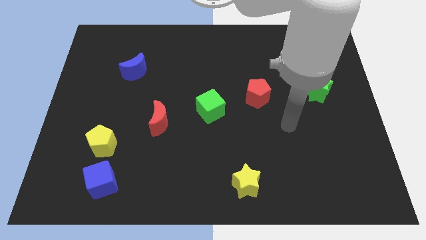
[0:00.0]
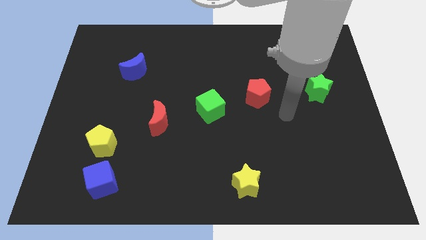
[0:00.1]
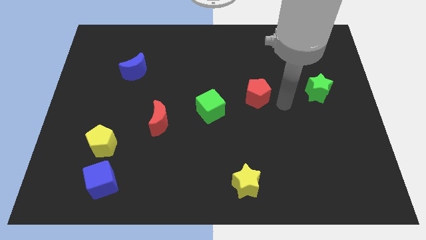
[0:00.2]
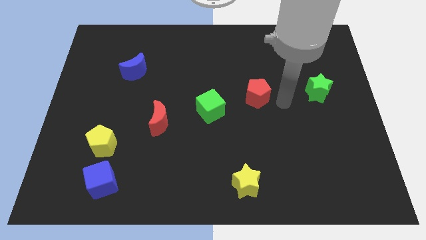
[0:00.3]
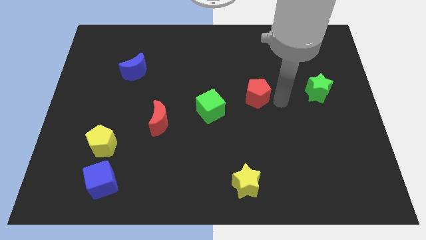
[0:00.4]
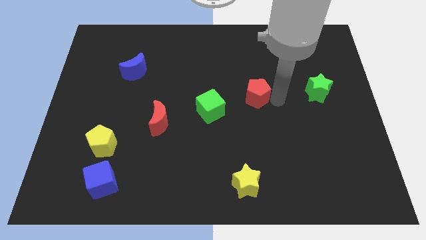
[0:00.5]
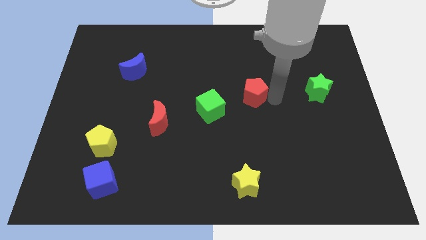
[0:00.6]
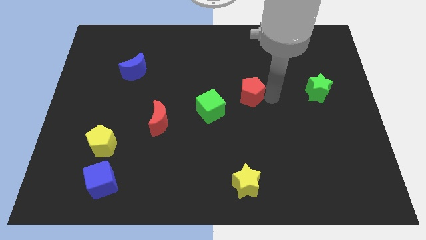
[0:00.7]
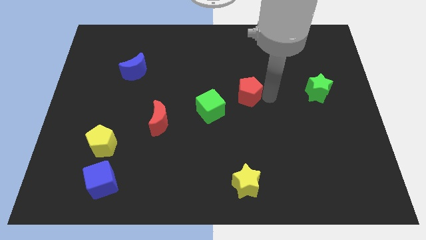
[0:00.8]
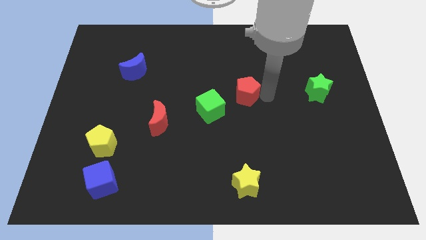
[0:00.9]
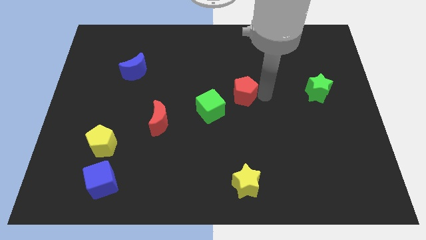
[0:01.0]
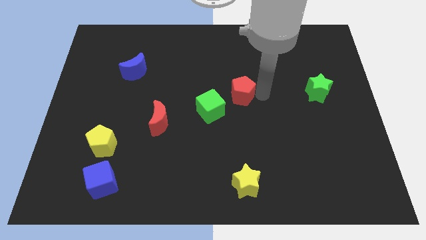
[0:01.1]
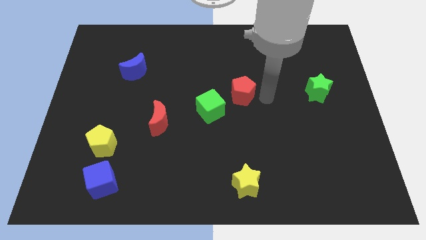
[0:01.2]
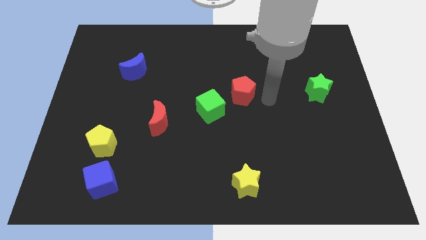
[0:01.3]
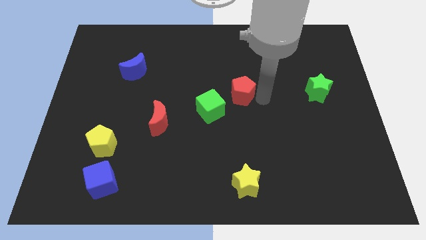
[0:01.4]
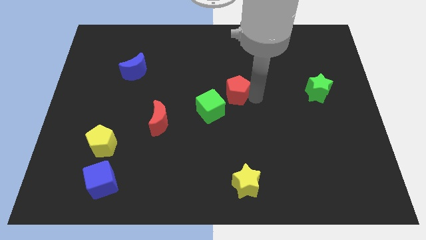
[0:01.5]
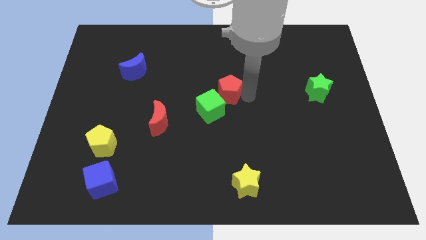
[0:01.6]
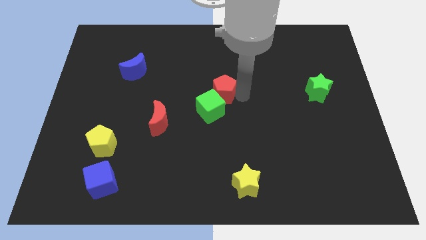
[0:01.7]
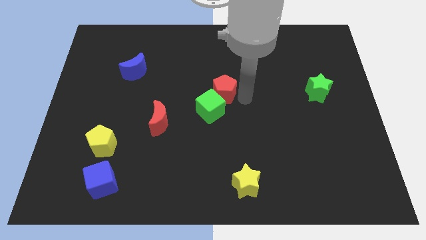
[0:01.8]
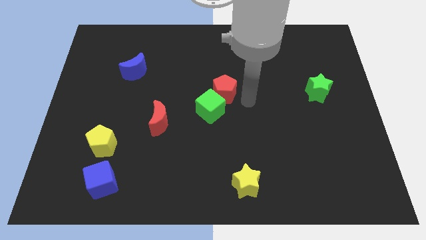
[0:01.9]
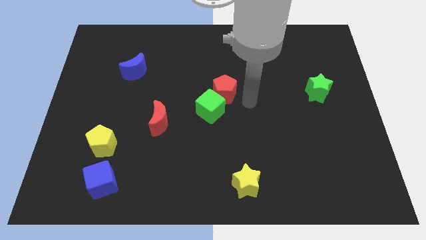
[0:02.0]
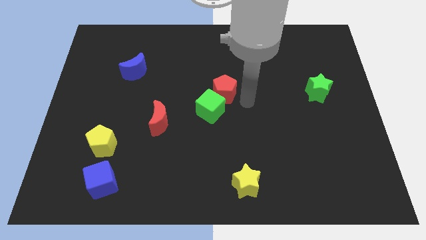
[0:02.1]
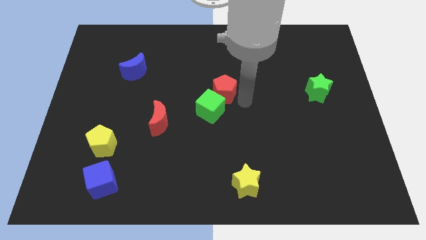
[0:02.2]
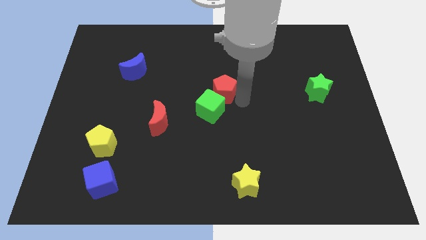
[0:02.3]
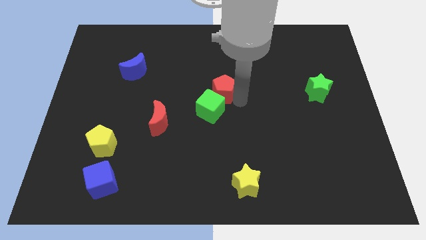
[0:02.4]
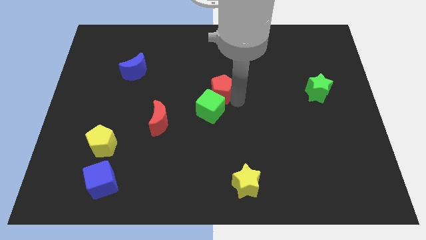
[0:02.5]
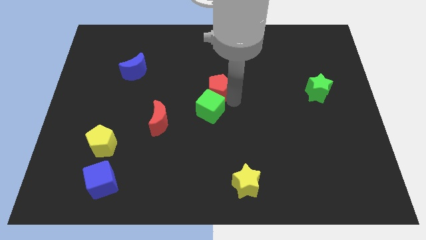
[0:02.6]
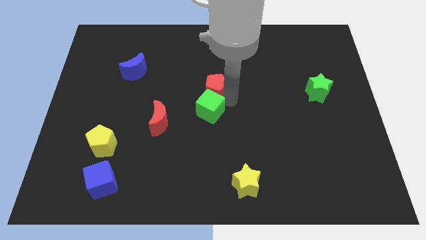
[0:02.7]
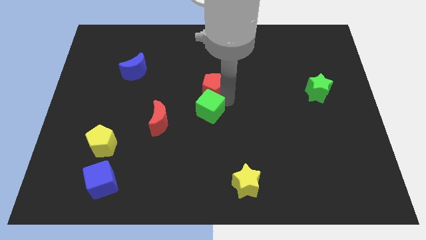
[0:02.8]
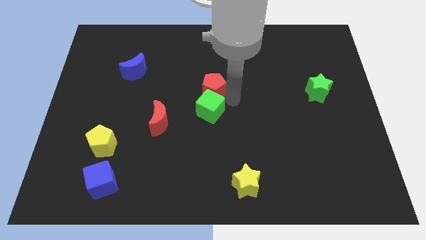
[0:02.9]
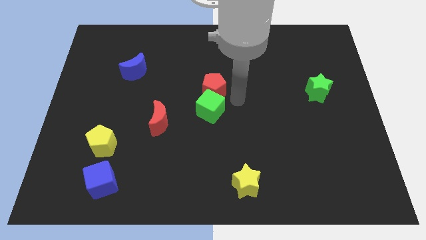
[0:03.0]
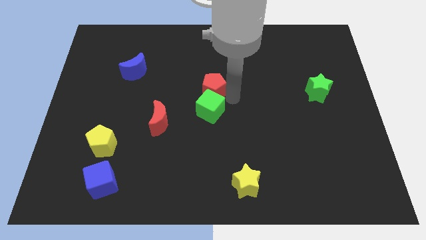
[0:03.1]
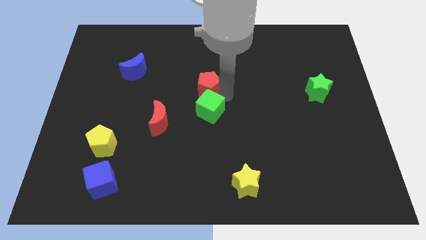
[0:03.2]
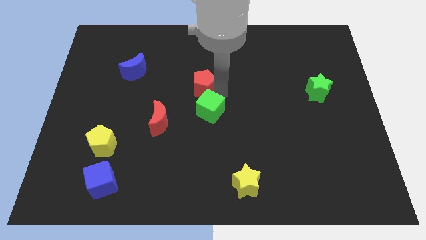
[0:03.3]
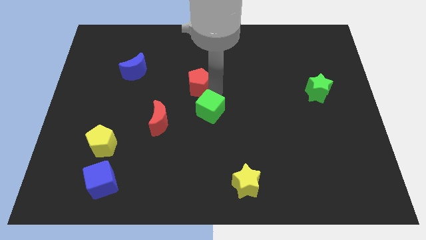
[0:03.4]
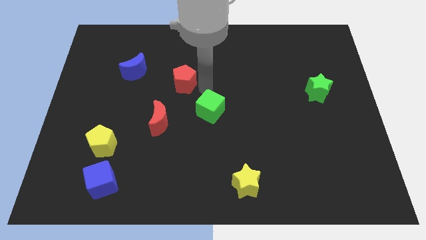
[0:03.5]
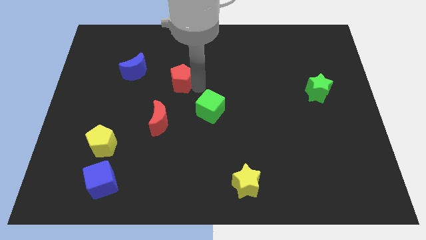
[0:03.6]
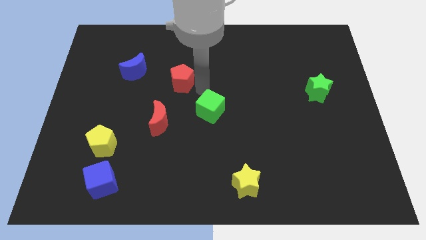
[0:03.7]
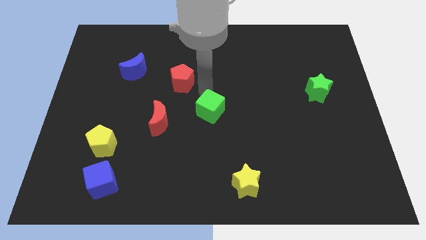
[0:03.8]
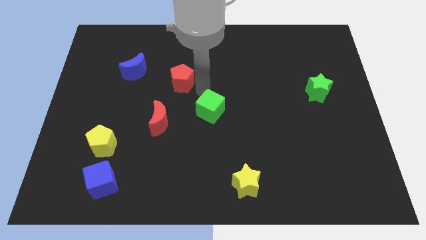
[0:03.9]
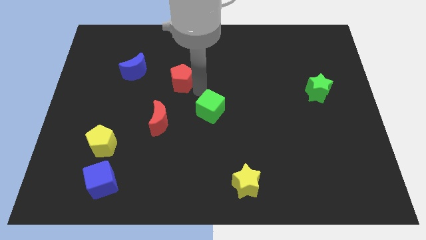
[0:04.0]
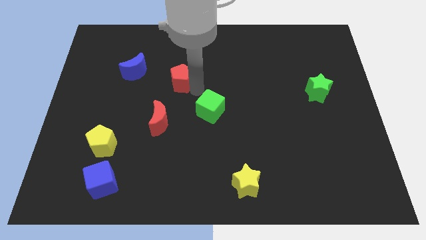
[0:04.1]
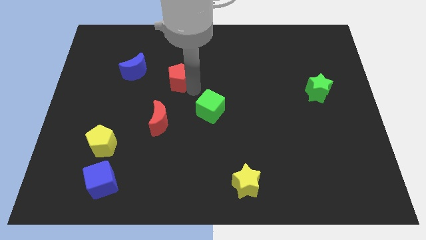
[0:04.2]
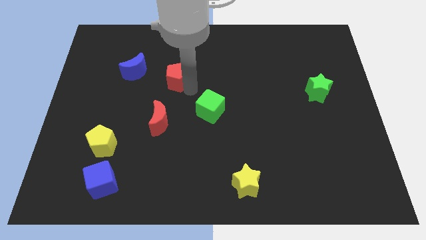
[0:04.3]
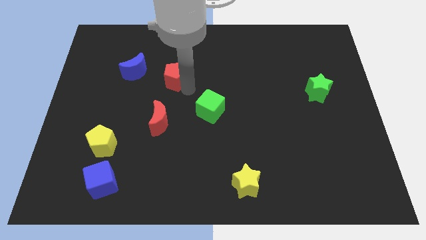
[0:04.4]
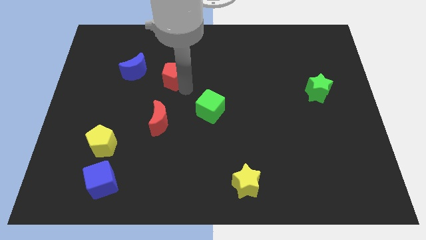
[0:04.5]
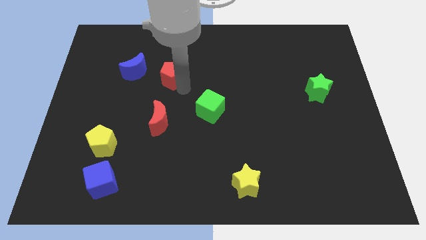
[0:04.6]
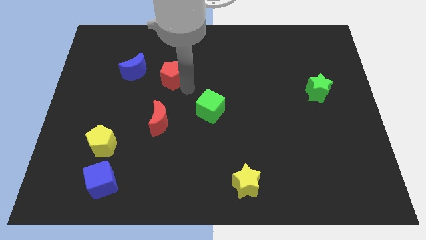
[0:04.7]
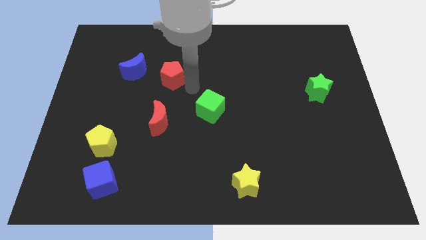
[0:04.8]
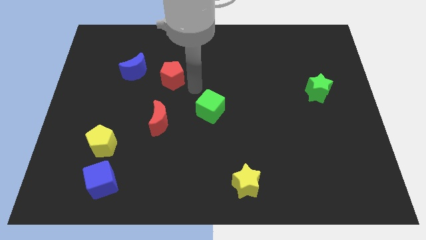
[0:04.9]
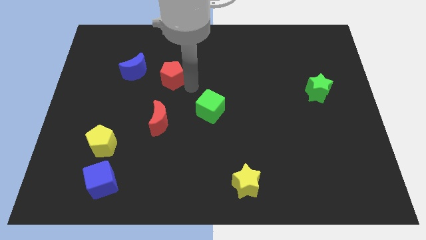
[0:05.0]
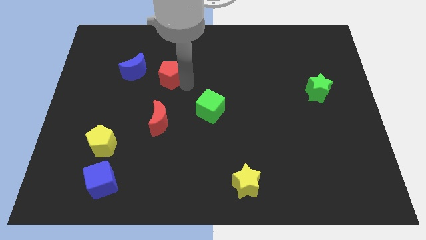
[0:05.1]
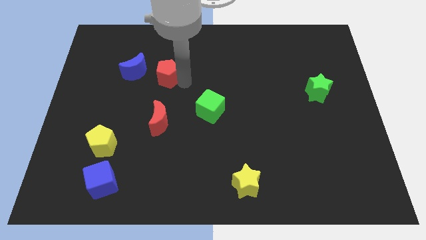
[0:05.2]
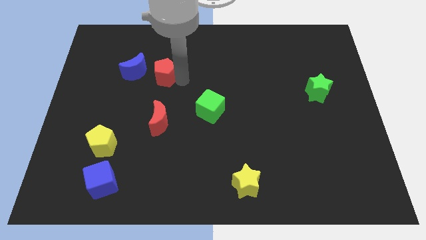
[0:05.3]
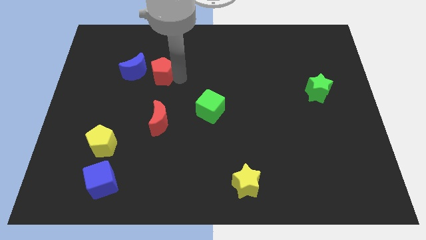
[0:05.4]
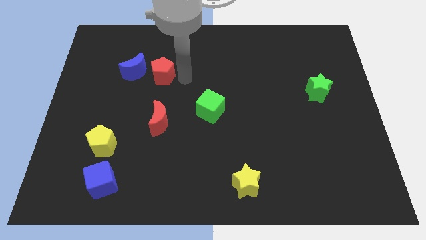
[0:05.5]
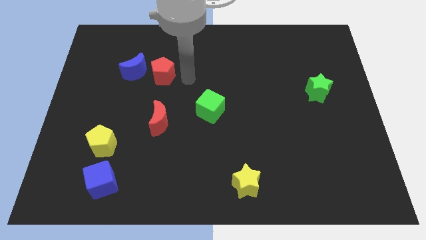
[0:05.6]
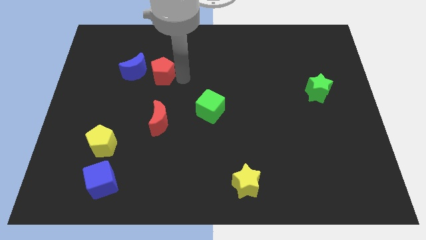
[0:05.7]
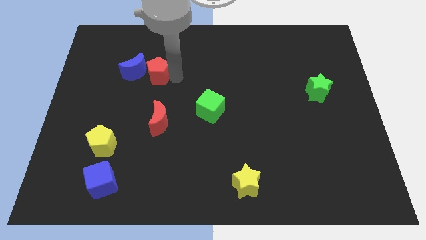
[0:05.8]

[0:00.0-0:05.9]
put the red pentagon to the blue moon

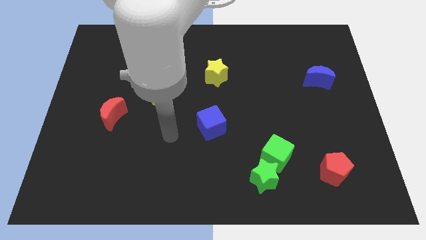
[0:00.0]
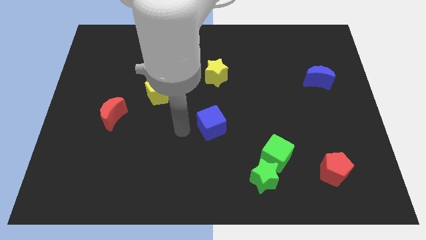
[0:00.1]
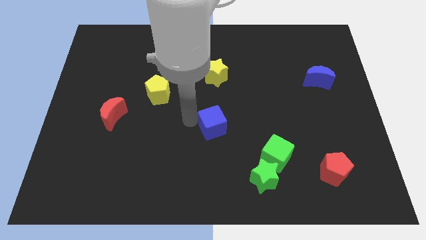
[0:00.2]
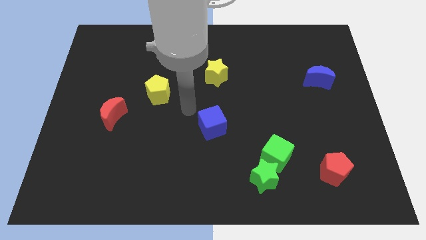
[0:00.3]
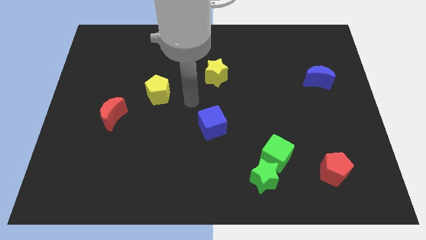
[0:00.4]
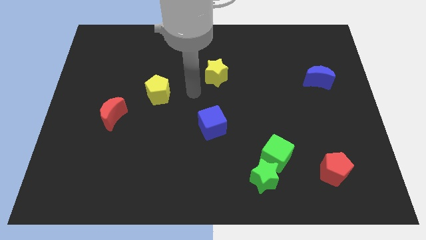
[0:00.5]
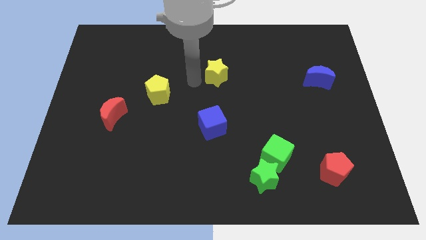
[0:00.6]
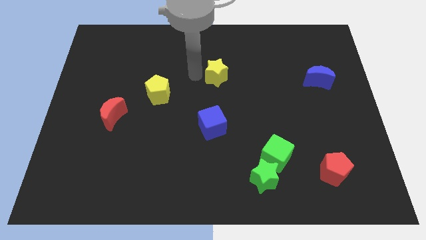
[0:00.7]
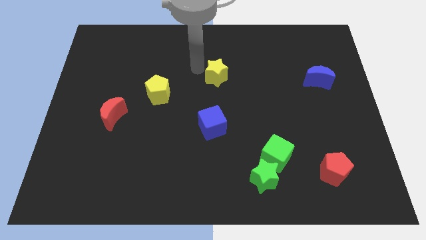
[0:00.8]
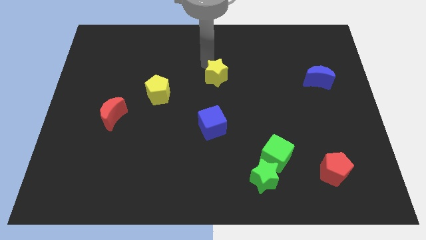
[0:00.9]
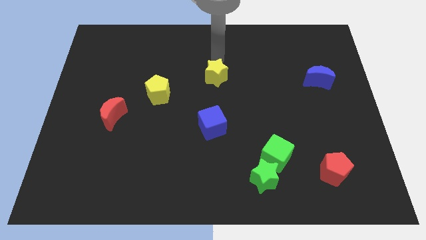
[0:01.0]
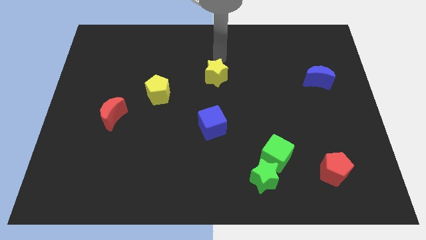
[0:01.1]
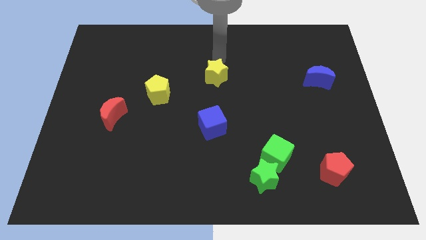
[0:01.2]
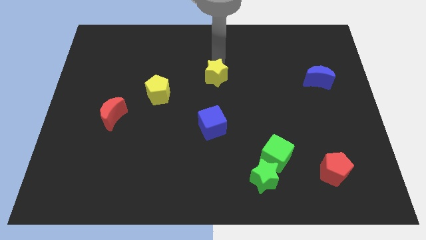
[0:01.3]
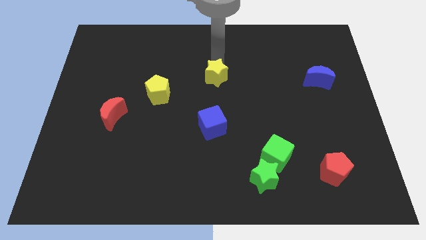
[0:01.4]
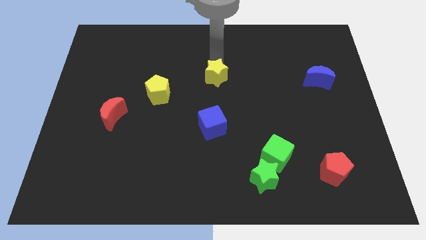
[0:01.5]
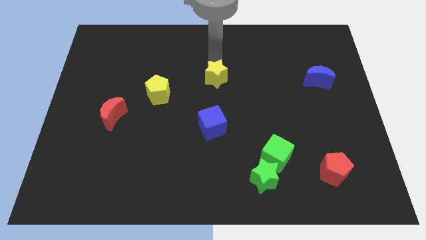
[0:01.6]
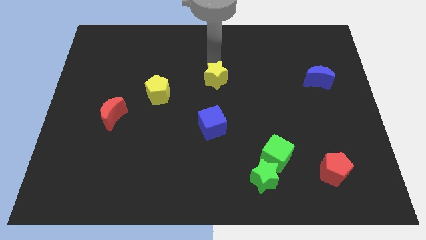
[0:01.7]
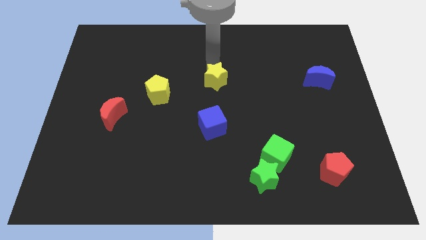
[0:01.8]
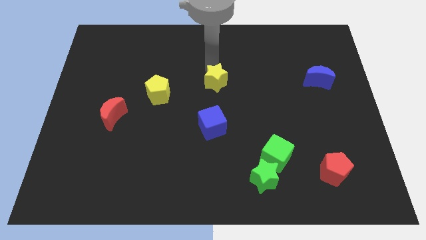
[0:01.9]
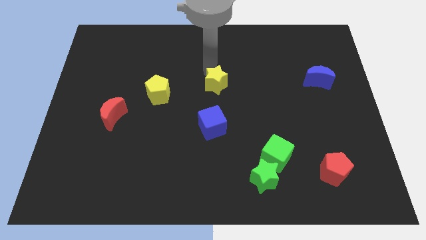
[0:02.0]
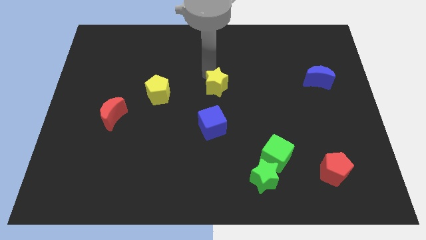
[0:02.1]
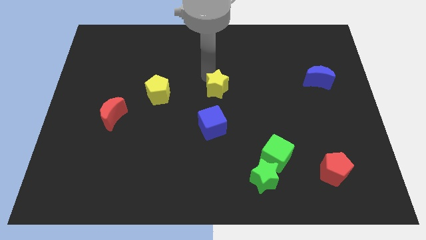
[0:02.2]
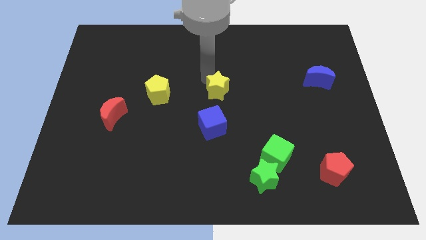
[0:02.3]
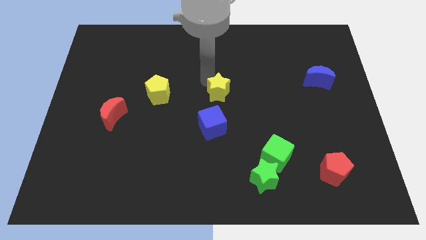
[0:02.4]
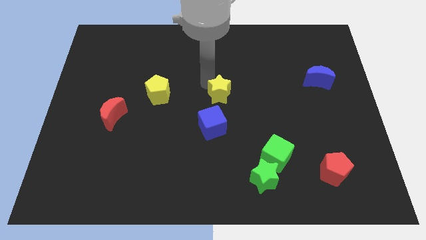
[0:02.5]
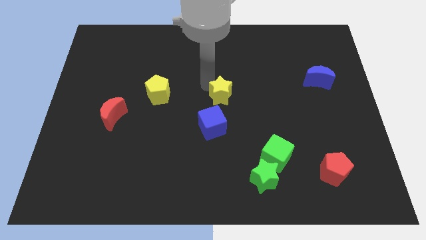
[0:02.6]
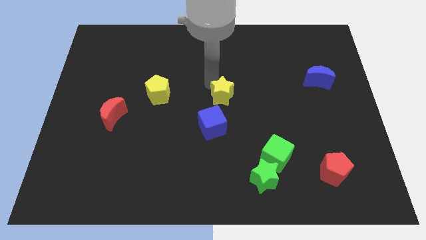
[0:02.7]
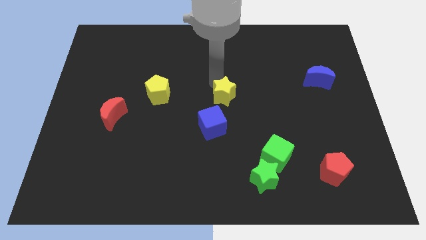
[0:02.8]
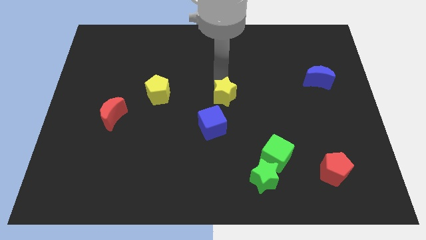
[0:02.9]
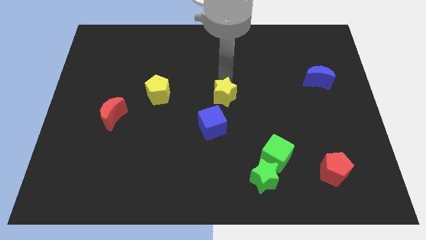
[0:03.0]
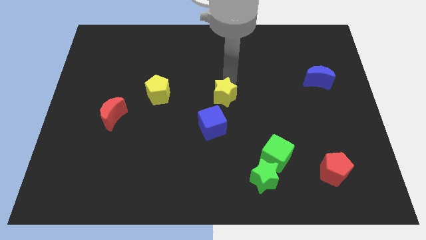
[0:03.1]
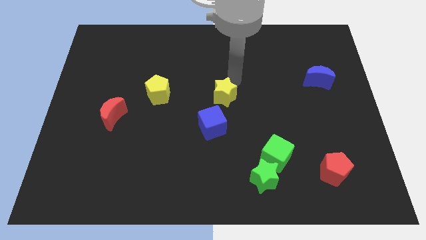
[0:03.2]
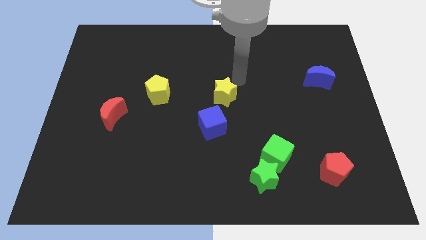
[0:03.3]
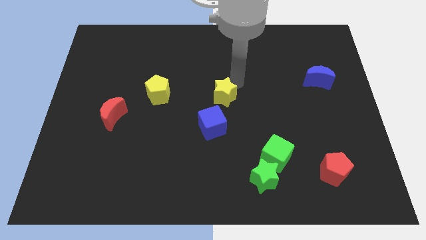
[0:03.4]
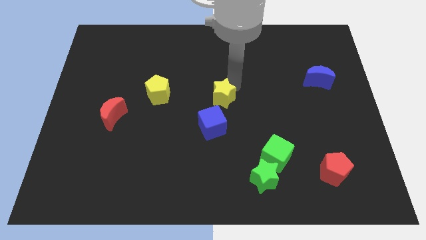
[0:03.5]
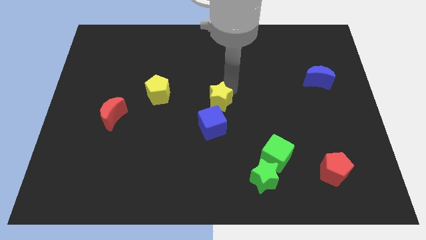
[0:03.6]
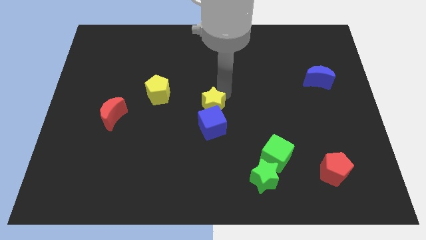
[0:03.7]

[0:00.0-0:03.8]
slide the yellow star towards the blue cube
